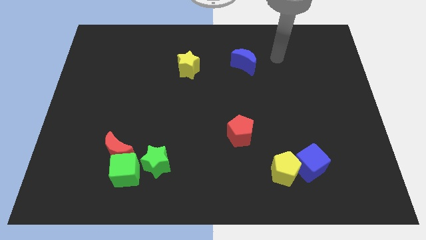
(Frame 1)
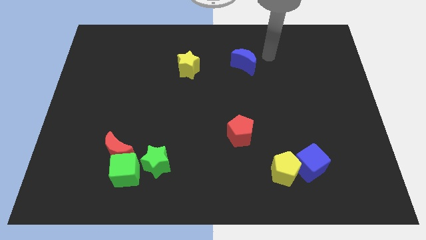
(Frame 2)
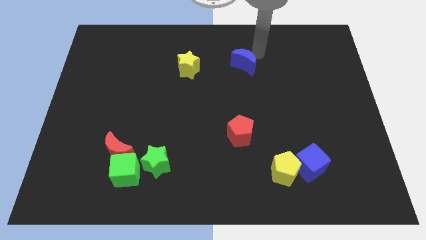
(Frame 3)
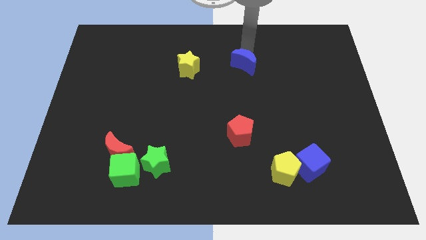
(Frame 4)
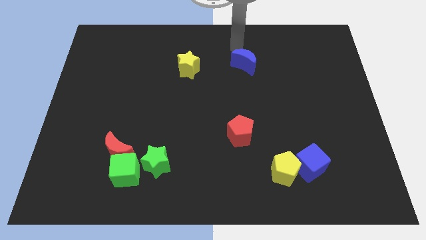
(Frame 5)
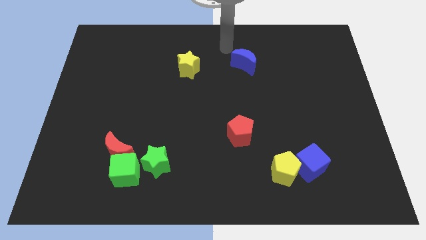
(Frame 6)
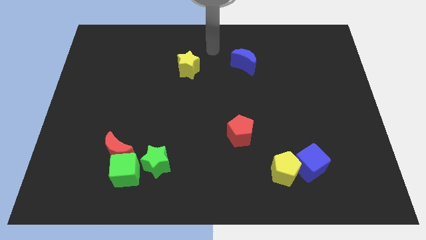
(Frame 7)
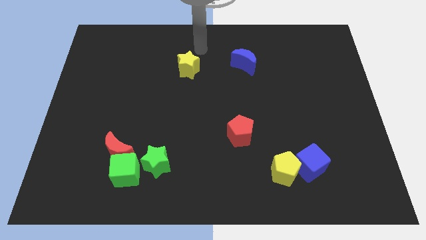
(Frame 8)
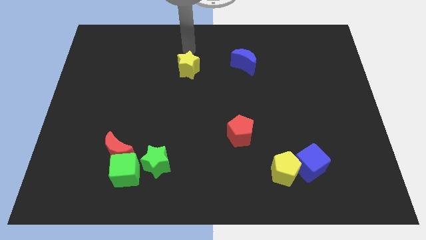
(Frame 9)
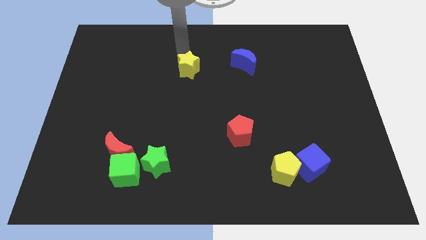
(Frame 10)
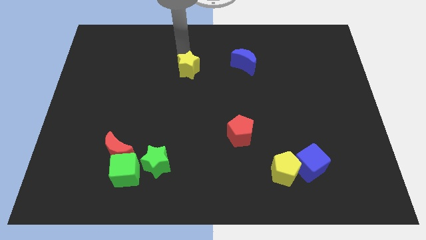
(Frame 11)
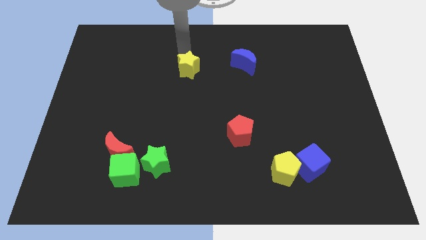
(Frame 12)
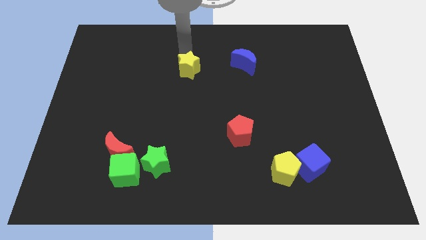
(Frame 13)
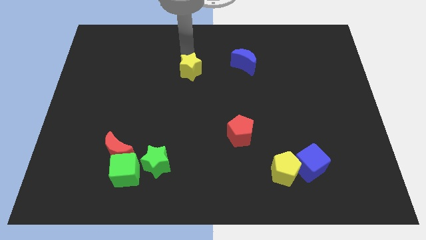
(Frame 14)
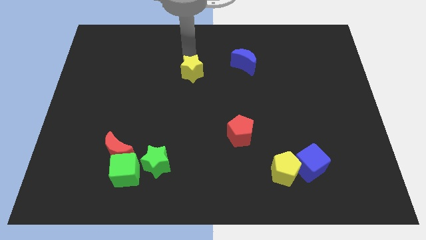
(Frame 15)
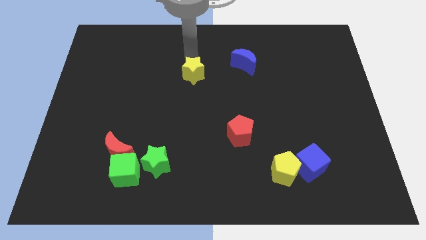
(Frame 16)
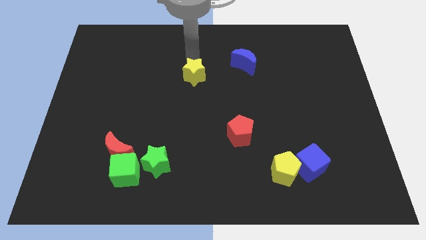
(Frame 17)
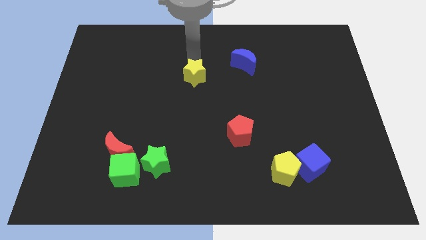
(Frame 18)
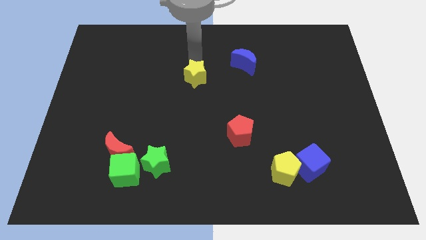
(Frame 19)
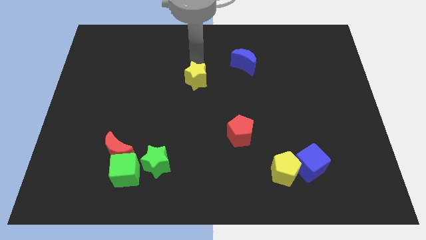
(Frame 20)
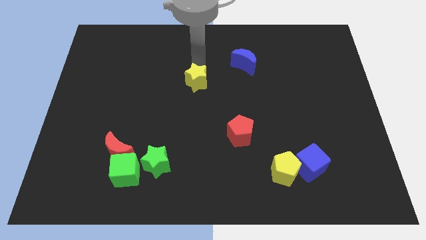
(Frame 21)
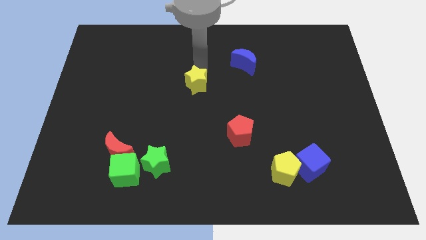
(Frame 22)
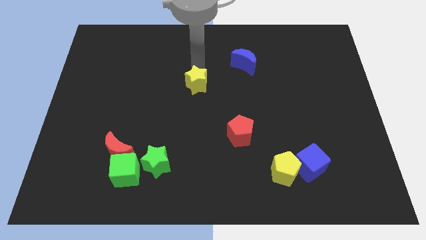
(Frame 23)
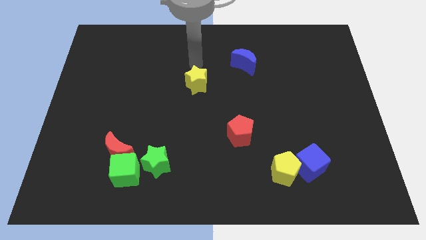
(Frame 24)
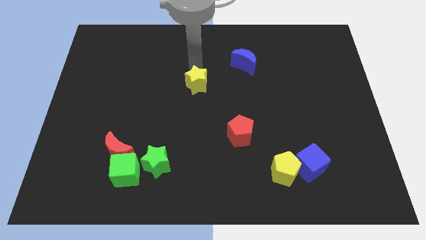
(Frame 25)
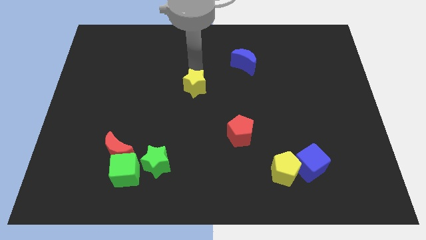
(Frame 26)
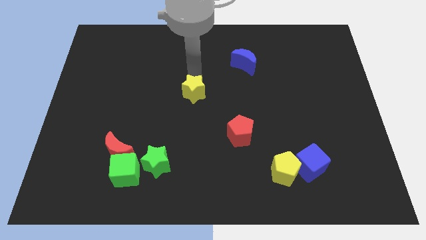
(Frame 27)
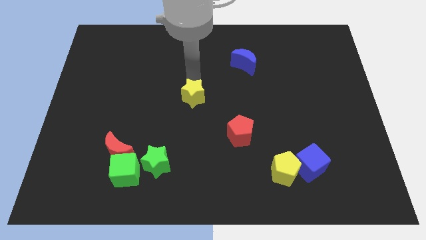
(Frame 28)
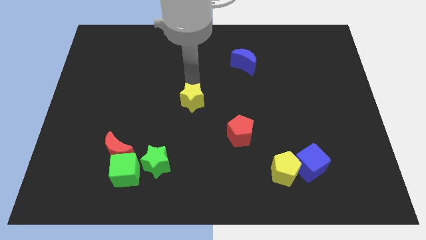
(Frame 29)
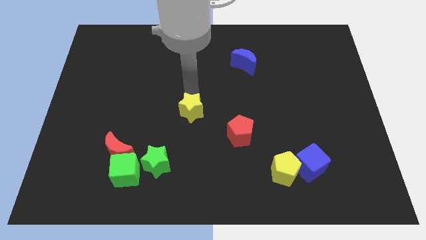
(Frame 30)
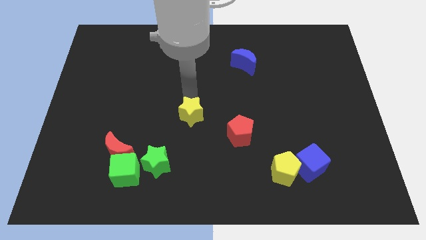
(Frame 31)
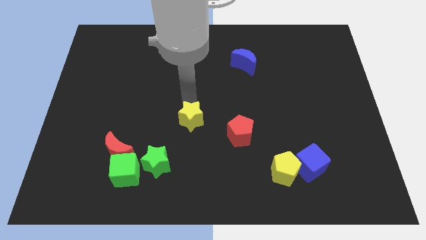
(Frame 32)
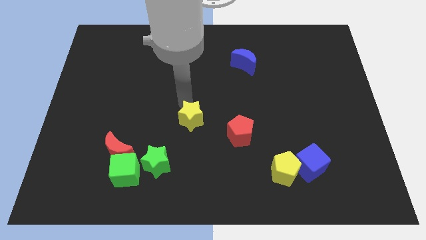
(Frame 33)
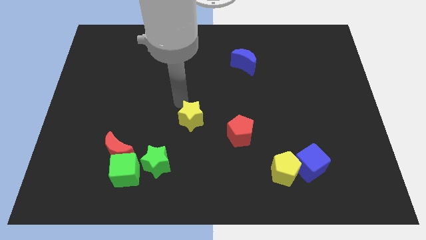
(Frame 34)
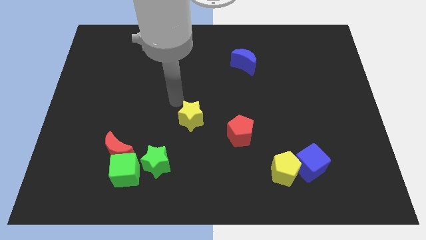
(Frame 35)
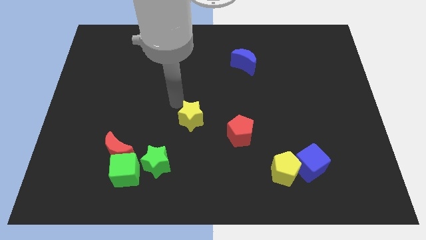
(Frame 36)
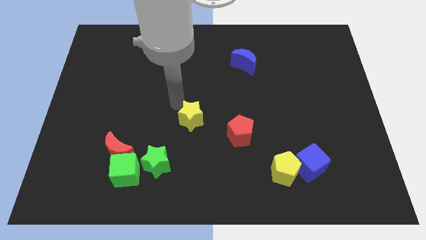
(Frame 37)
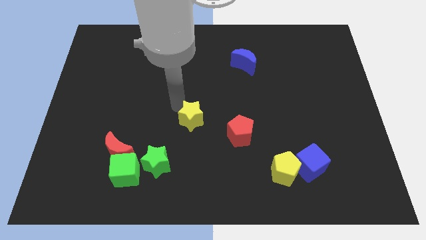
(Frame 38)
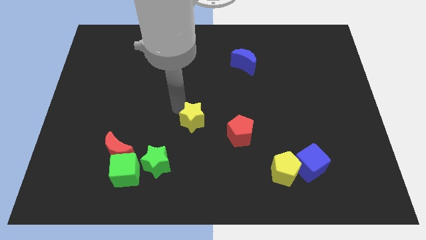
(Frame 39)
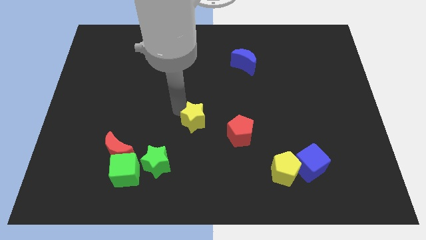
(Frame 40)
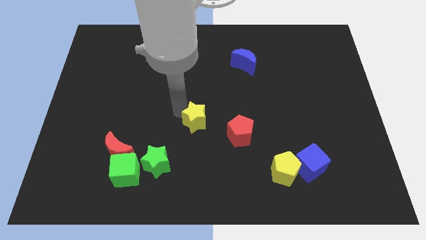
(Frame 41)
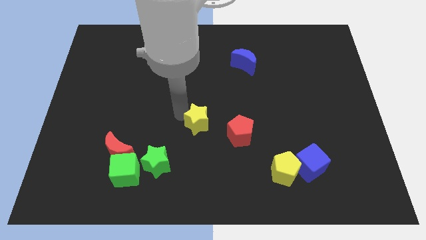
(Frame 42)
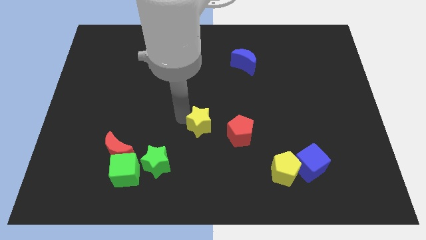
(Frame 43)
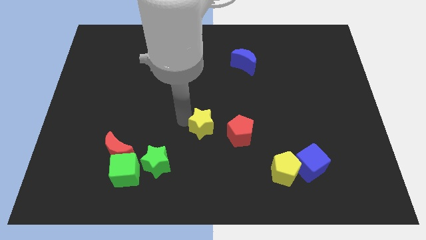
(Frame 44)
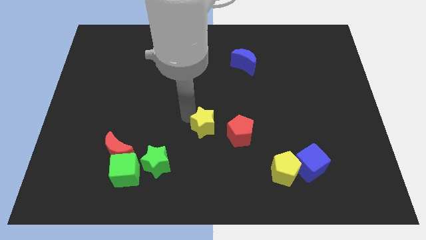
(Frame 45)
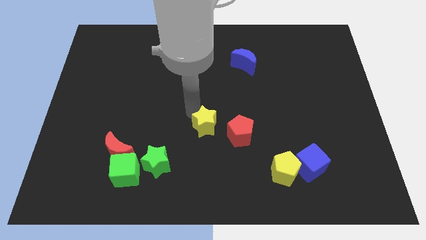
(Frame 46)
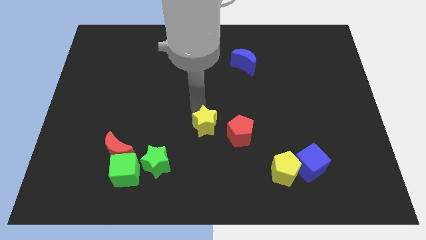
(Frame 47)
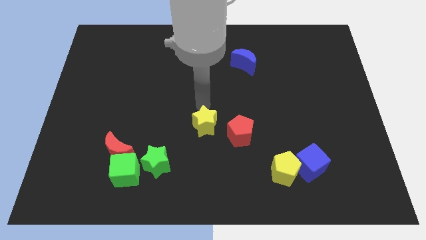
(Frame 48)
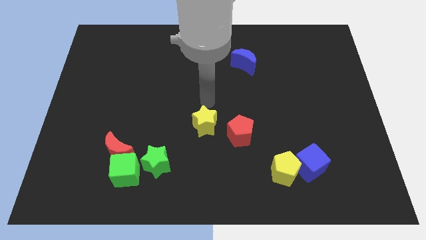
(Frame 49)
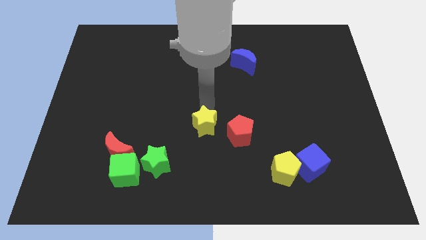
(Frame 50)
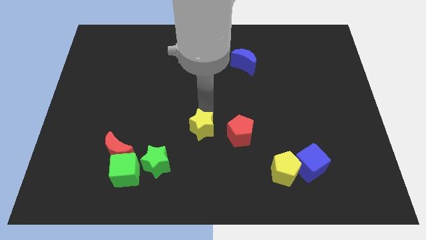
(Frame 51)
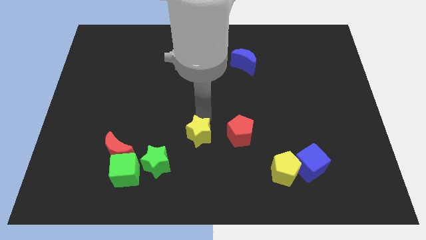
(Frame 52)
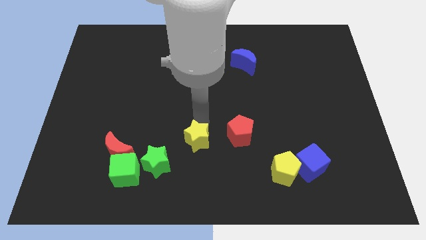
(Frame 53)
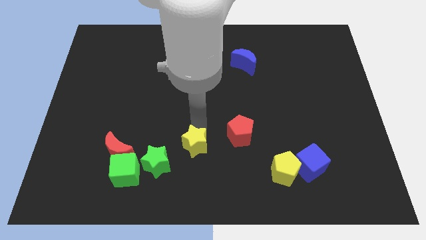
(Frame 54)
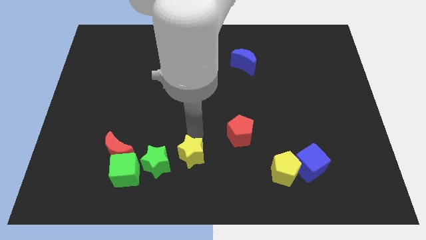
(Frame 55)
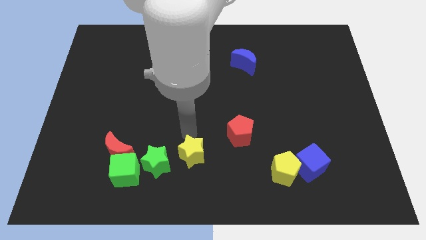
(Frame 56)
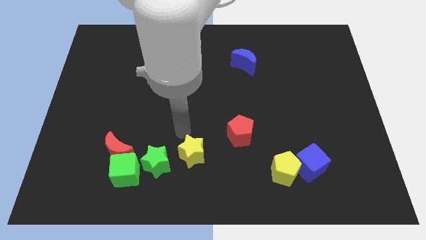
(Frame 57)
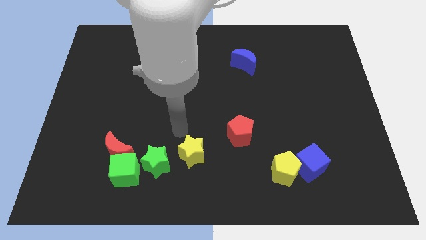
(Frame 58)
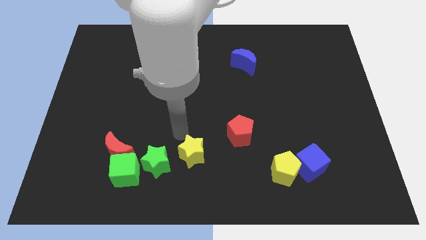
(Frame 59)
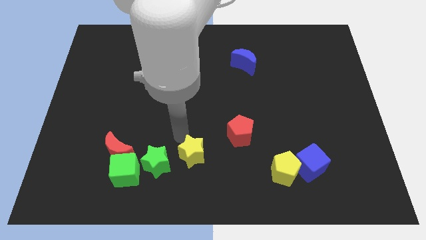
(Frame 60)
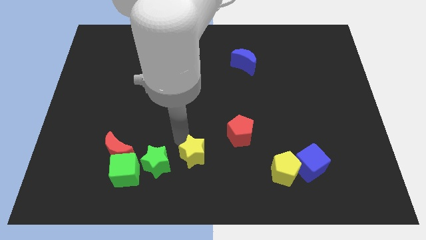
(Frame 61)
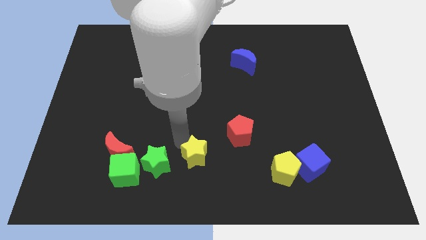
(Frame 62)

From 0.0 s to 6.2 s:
move the yellow star to the bottom
